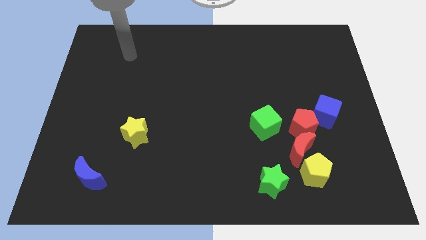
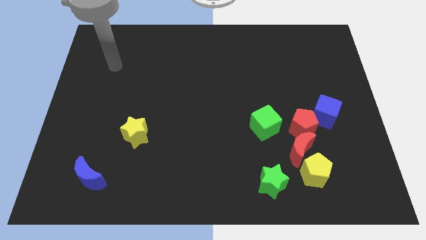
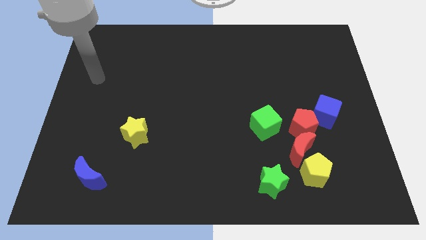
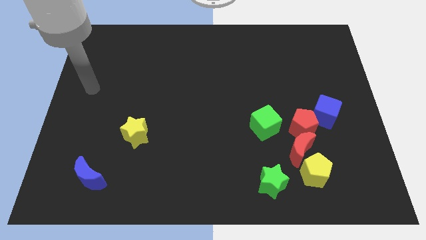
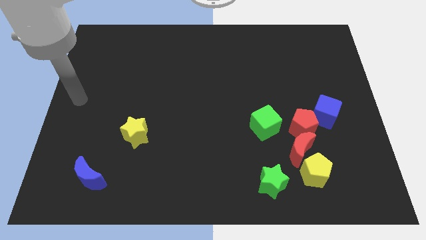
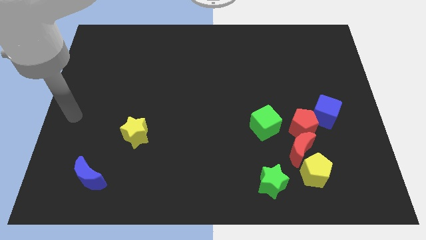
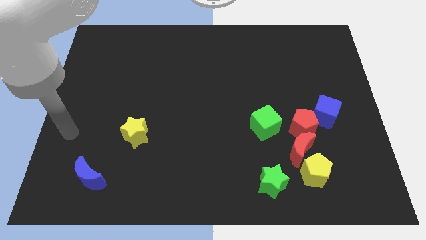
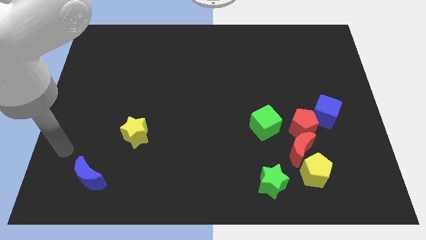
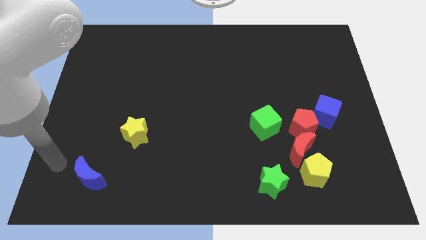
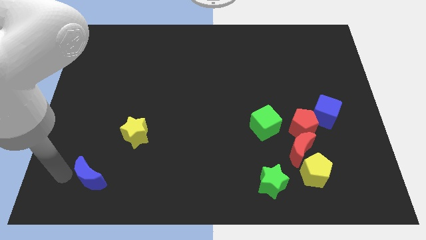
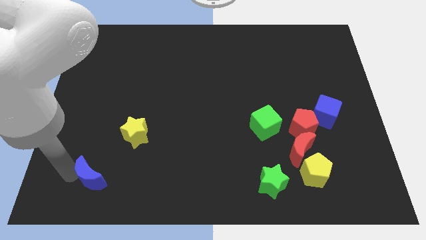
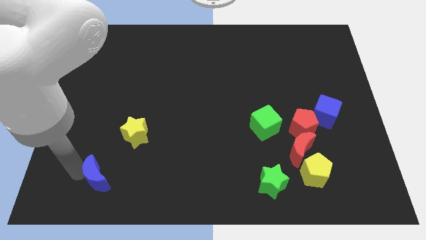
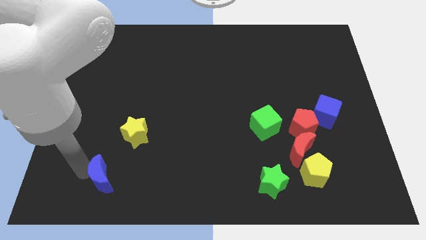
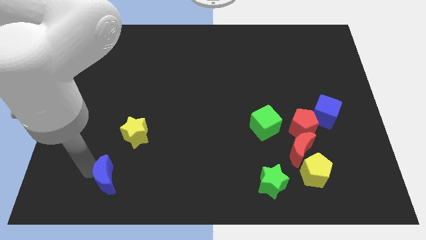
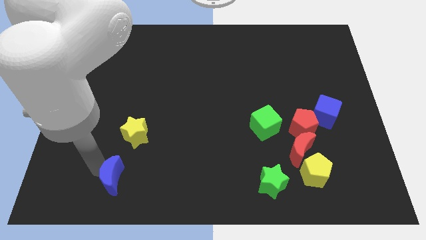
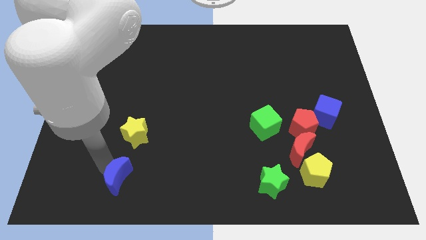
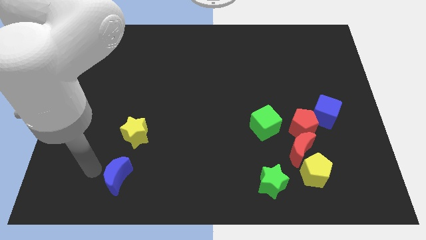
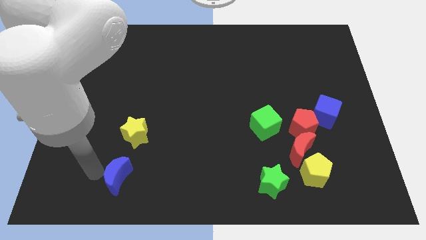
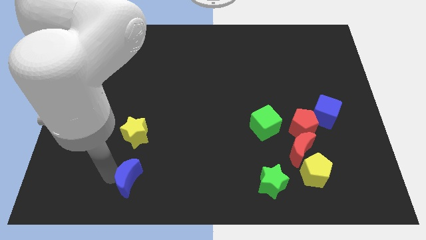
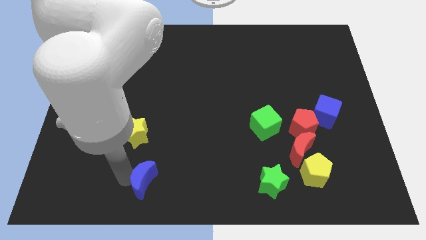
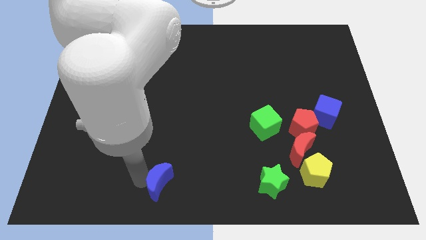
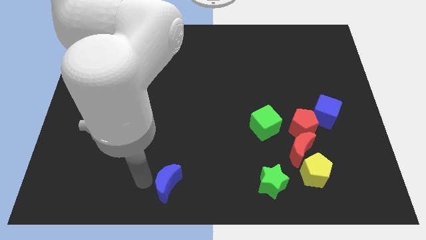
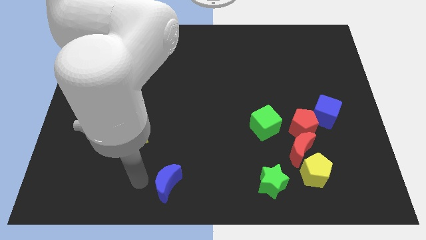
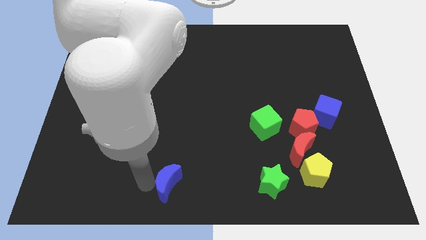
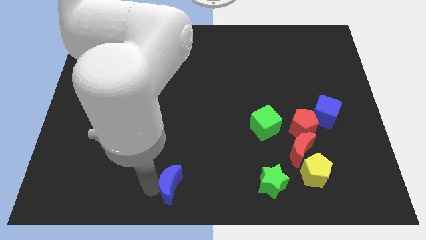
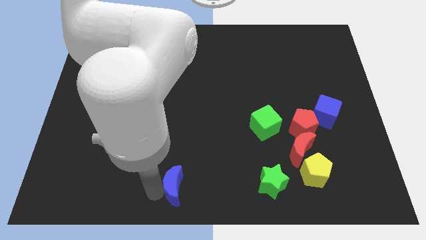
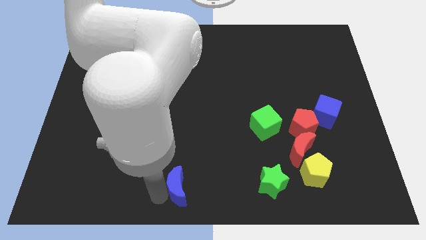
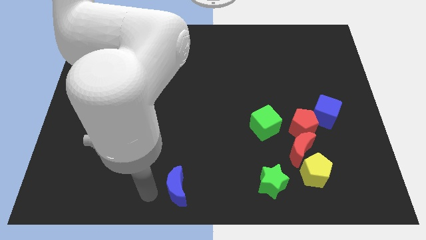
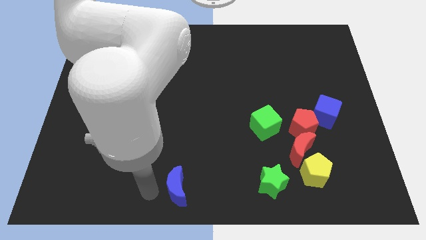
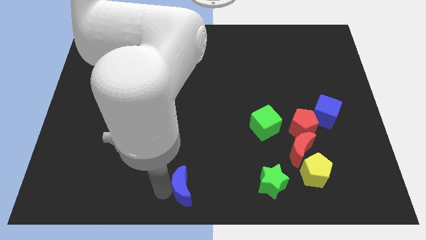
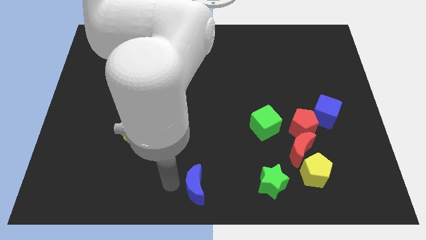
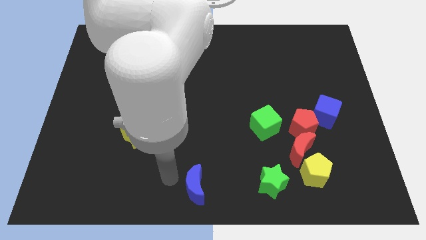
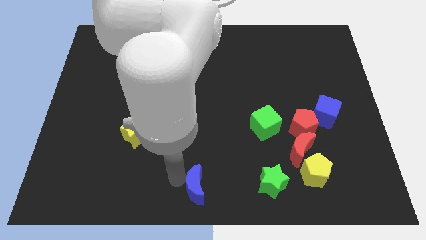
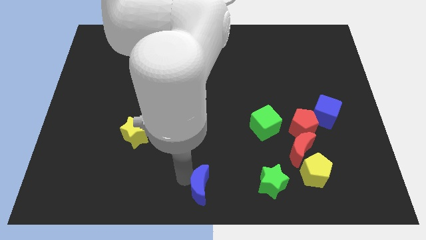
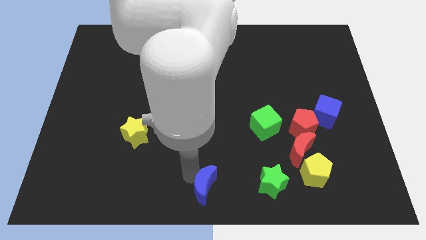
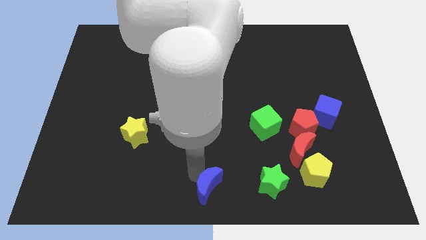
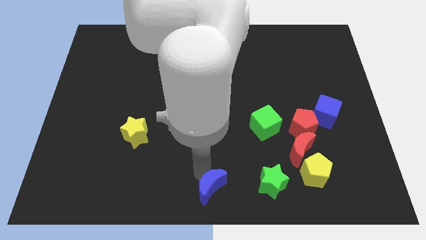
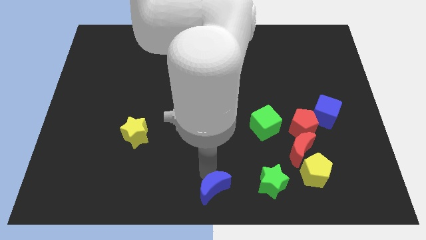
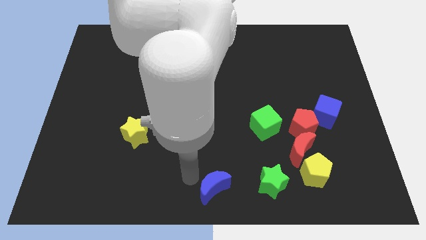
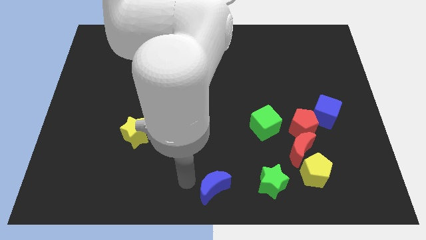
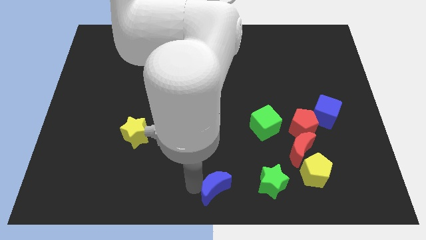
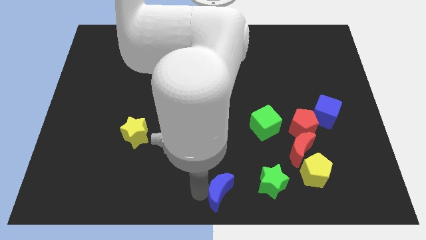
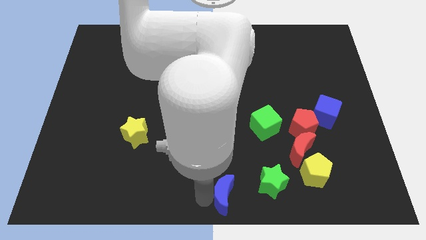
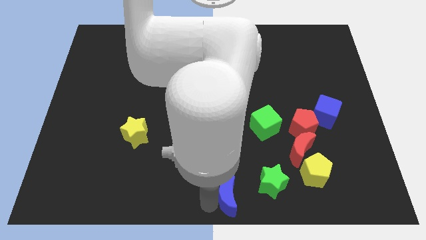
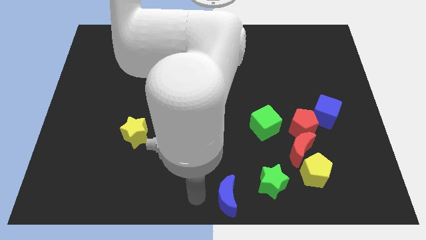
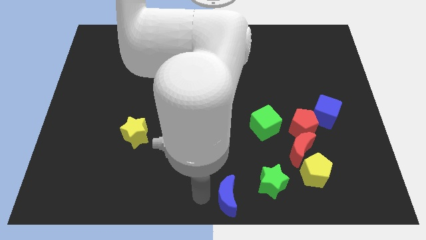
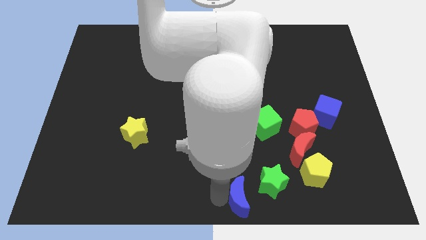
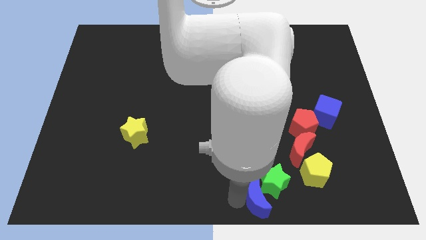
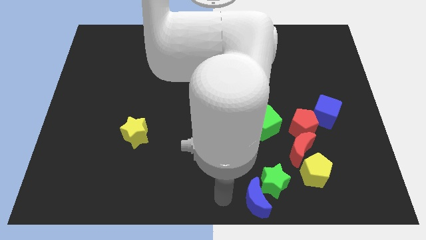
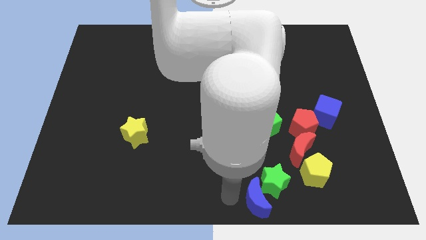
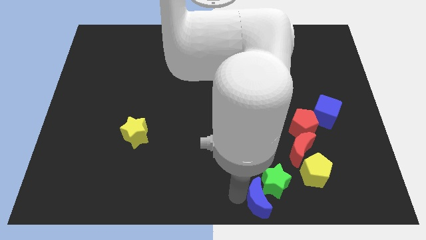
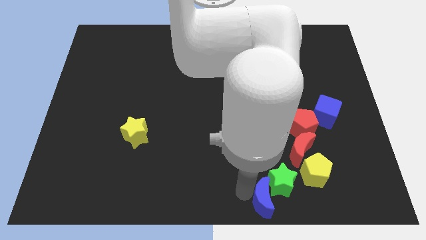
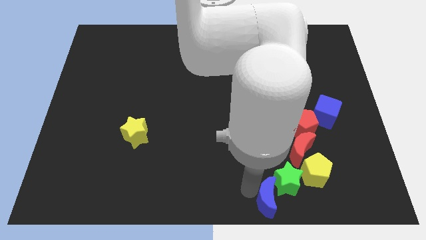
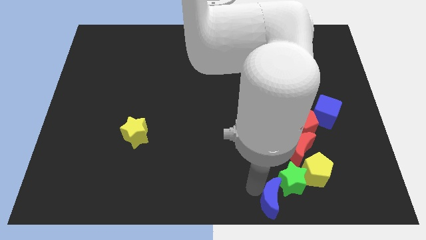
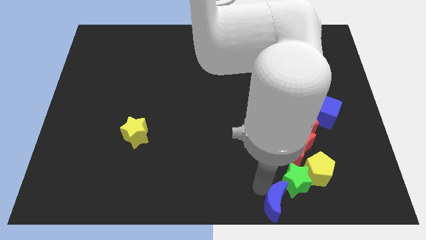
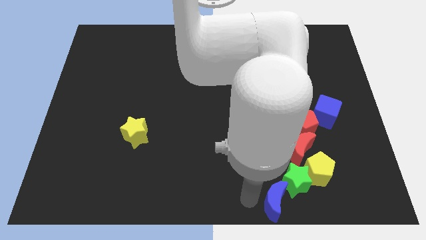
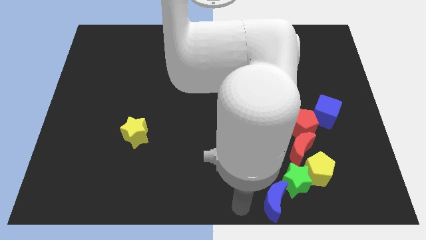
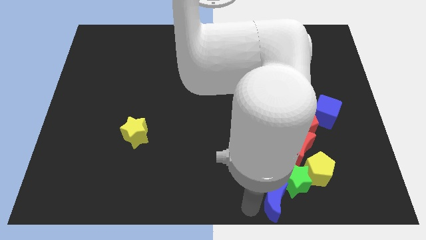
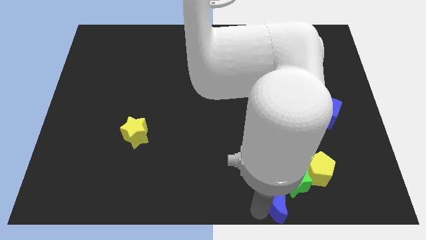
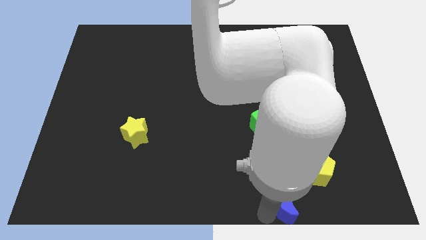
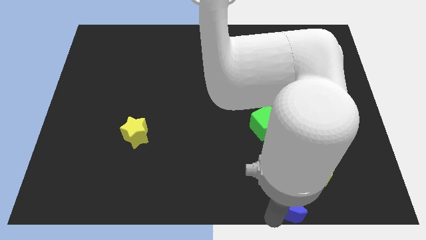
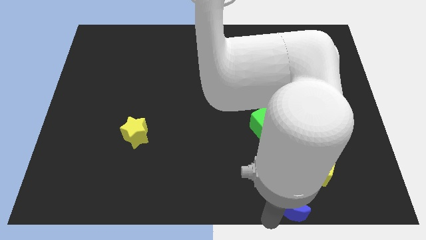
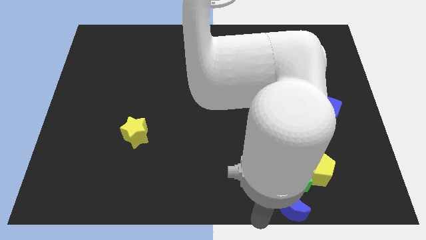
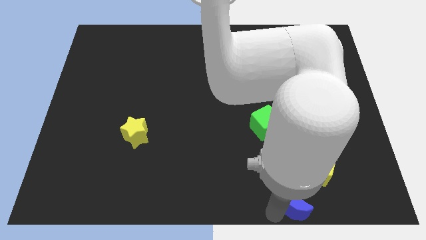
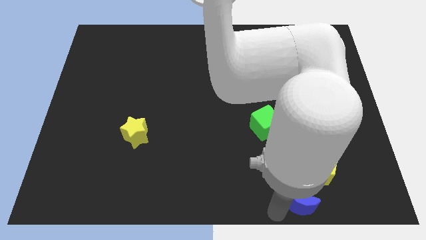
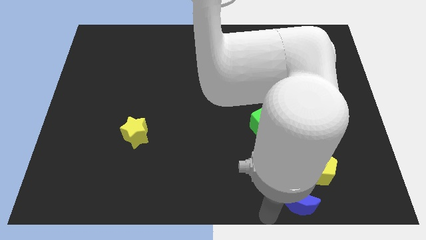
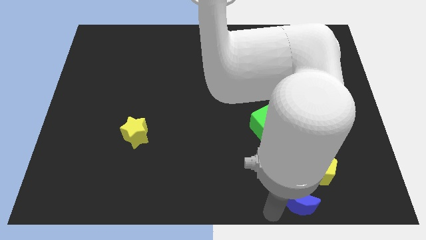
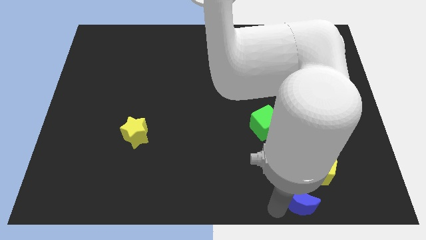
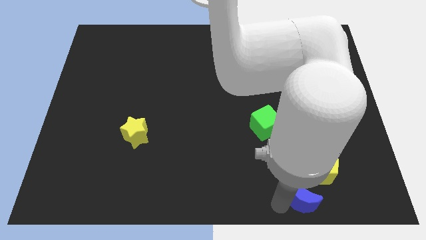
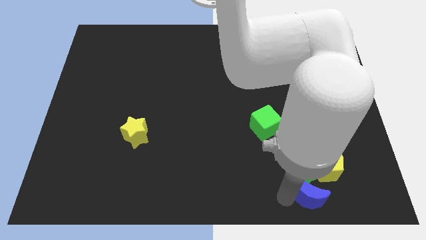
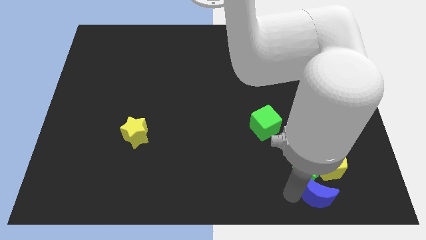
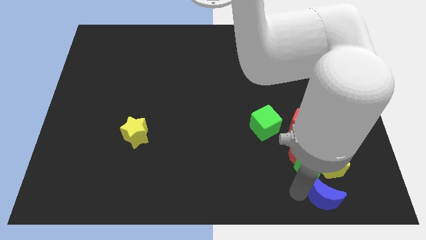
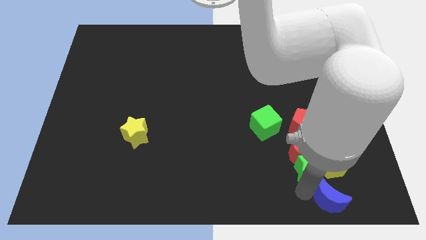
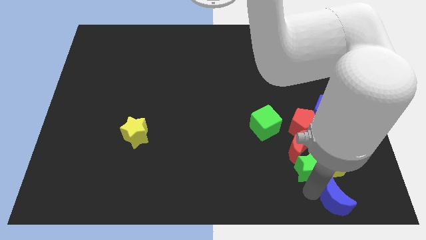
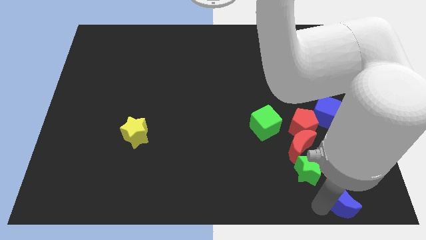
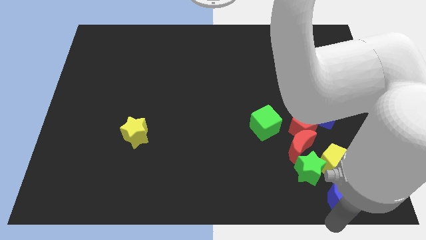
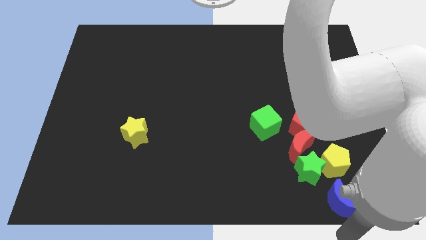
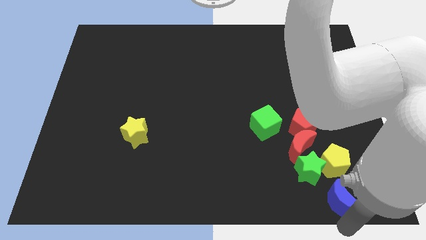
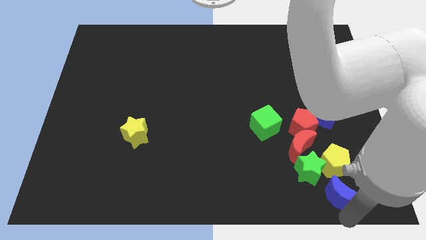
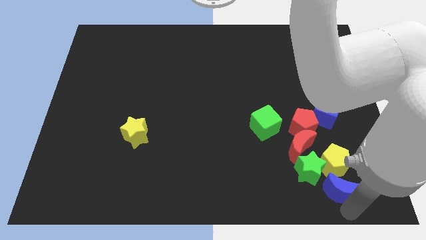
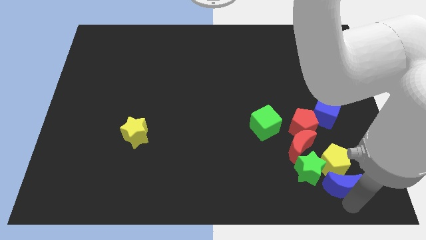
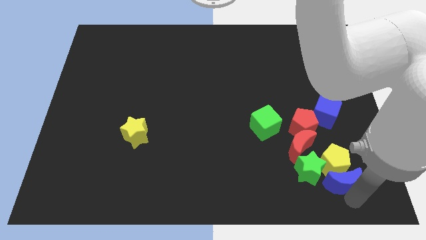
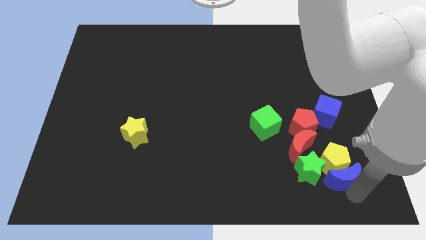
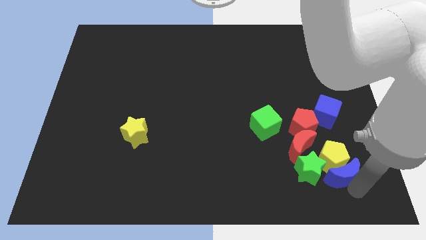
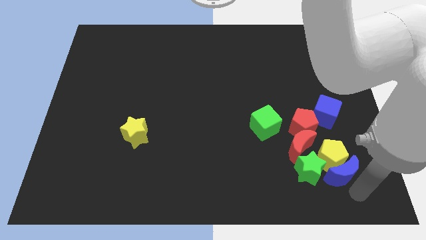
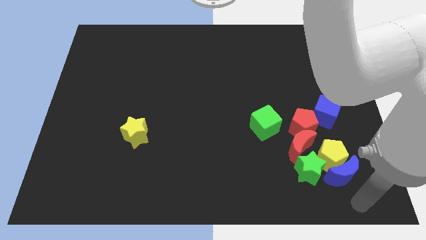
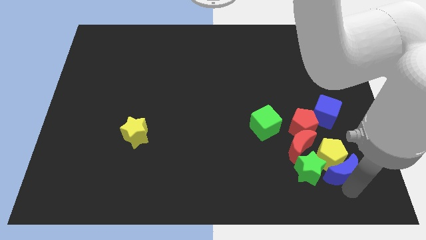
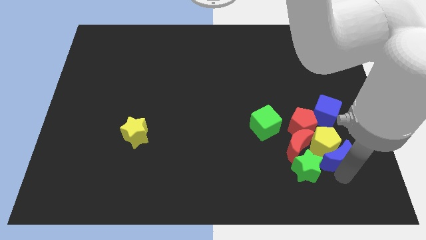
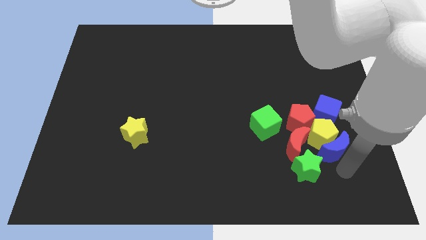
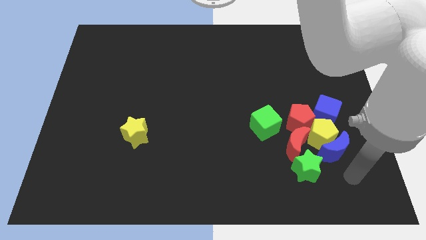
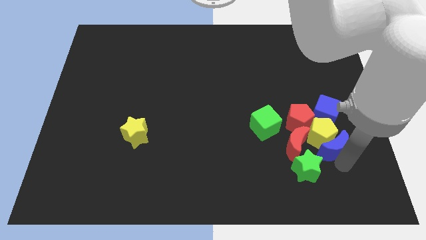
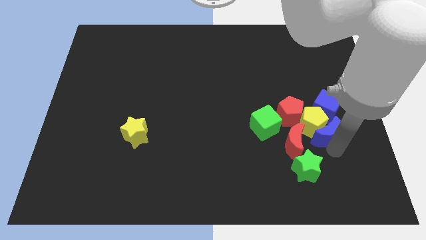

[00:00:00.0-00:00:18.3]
move the blue moon to the top right side of the red moon
